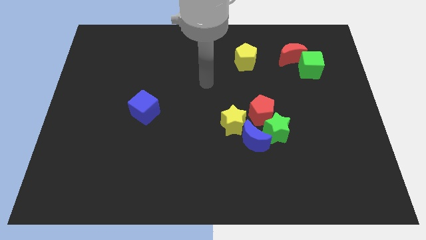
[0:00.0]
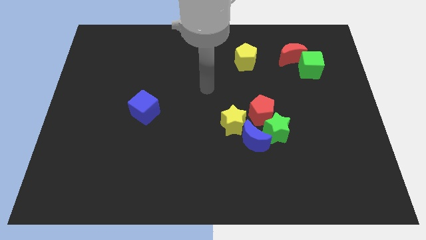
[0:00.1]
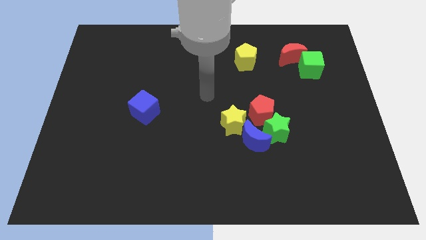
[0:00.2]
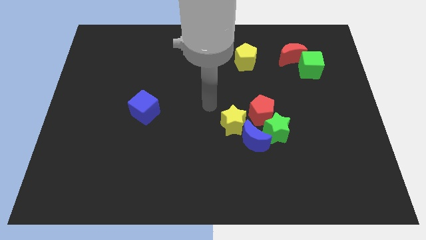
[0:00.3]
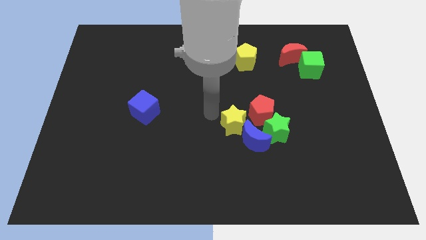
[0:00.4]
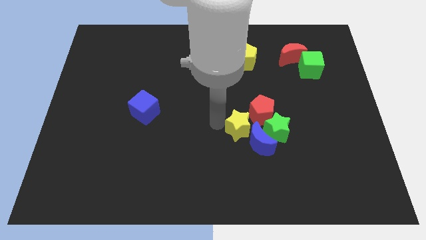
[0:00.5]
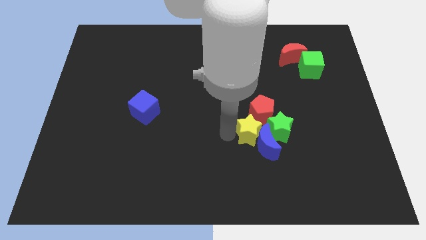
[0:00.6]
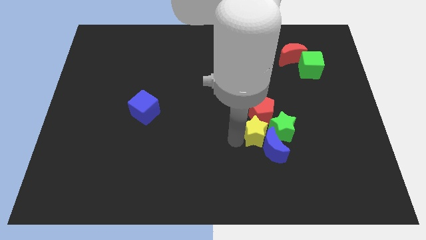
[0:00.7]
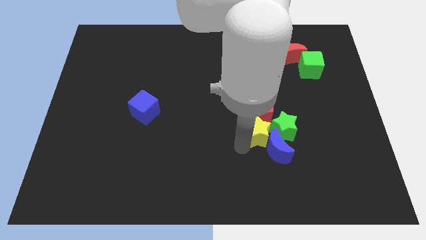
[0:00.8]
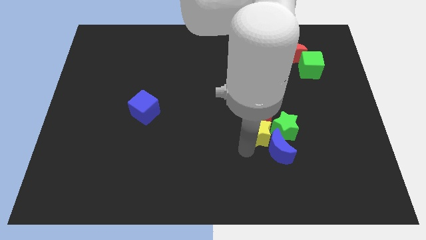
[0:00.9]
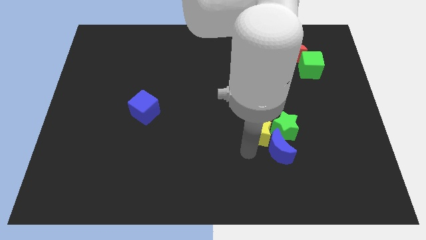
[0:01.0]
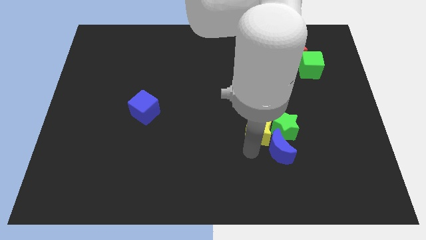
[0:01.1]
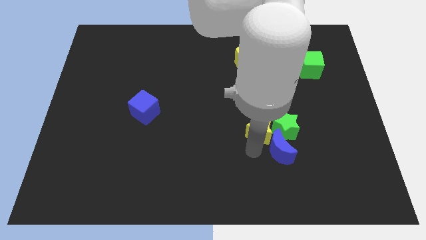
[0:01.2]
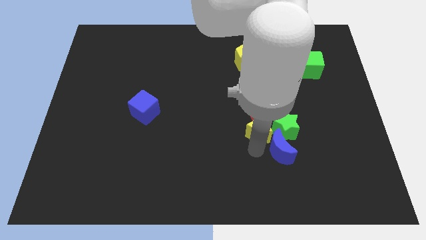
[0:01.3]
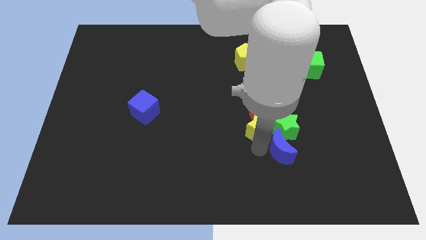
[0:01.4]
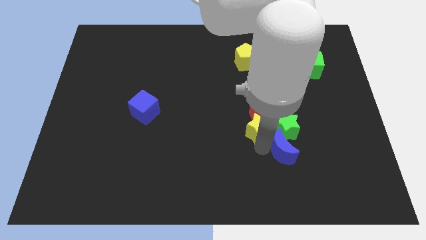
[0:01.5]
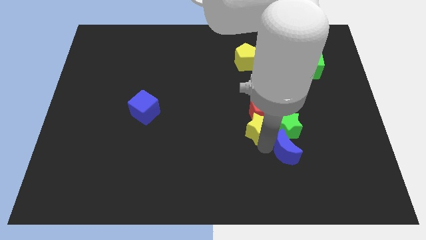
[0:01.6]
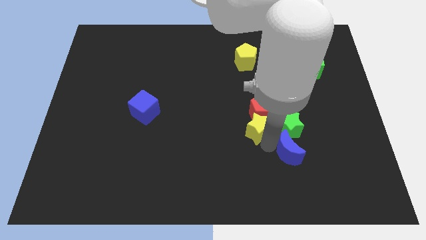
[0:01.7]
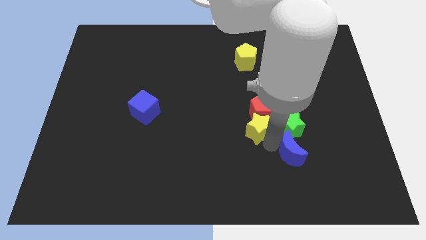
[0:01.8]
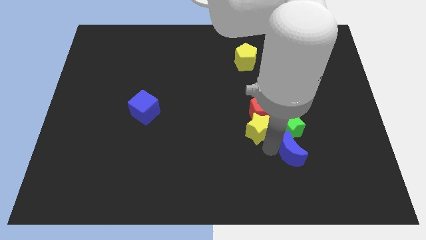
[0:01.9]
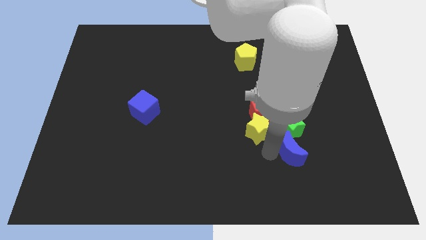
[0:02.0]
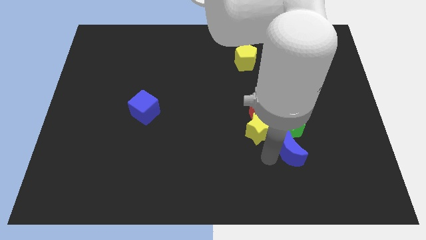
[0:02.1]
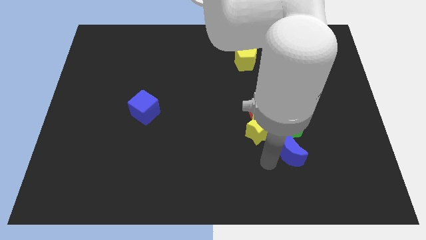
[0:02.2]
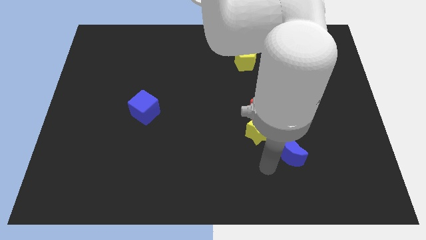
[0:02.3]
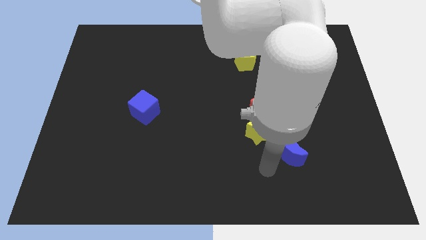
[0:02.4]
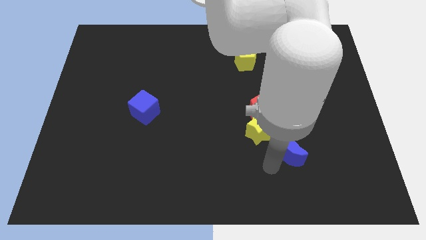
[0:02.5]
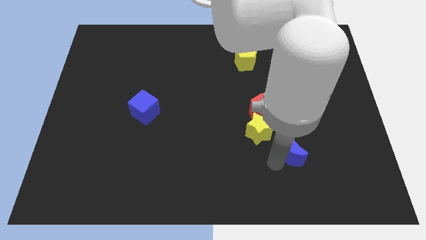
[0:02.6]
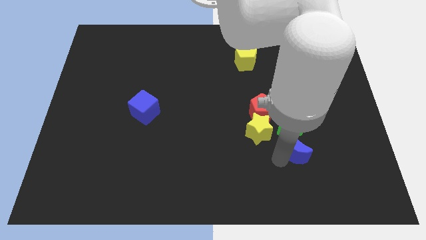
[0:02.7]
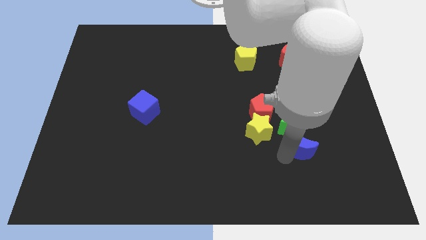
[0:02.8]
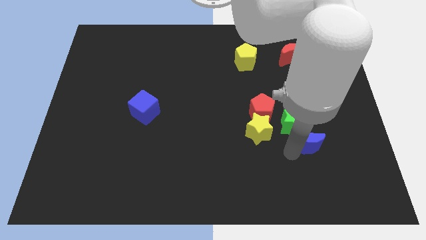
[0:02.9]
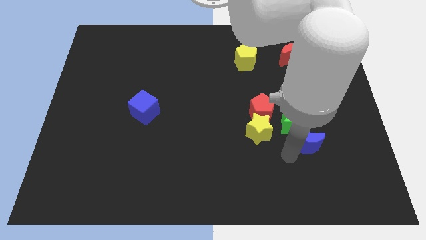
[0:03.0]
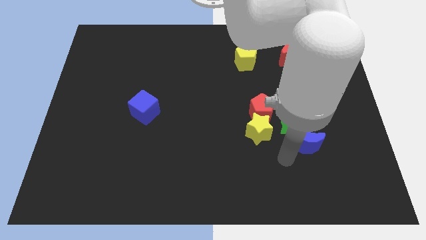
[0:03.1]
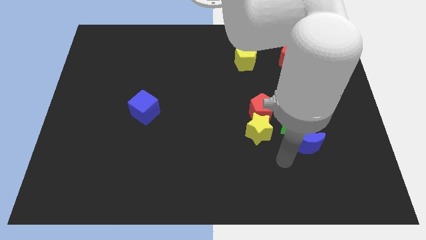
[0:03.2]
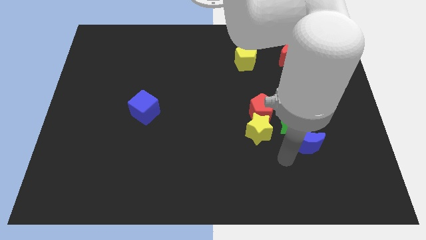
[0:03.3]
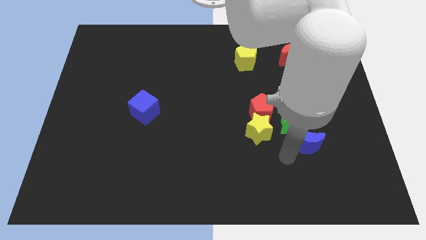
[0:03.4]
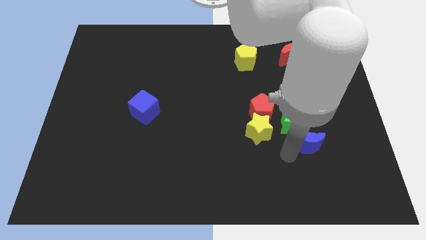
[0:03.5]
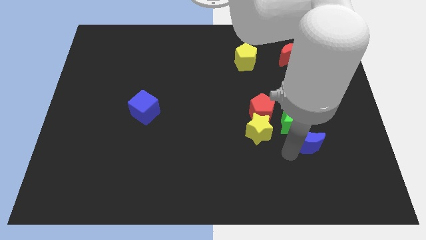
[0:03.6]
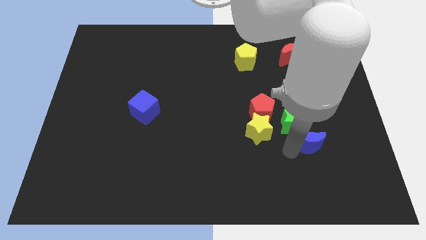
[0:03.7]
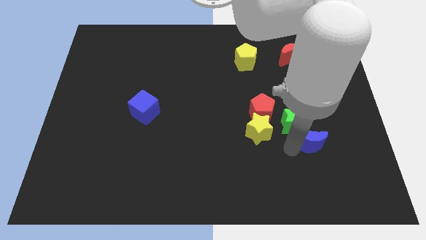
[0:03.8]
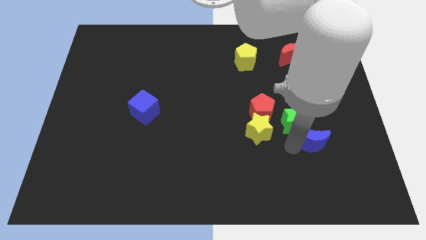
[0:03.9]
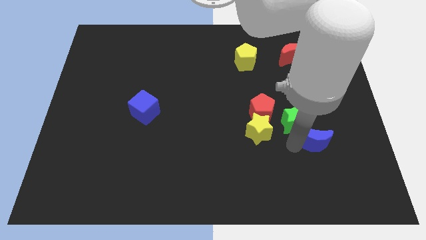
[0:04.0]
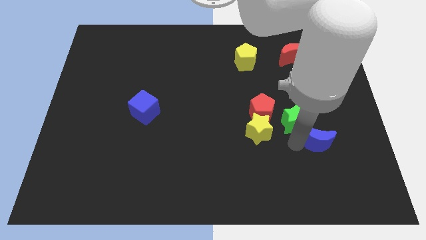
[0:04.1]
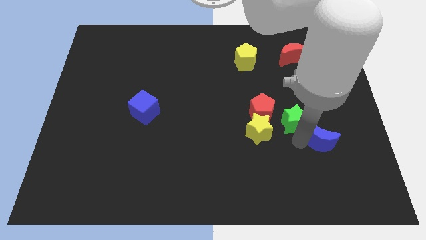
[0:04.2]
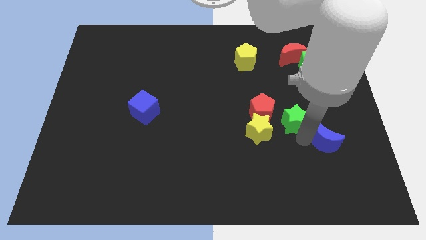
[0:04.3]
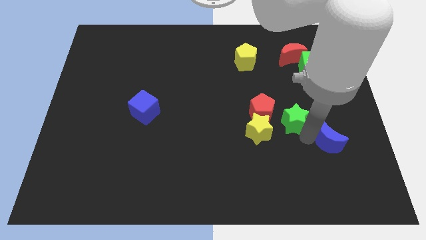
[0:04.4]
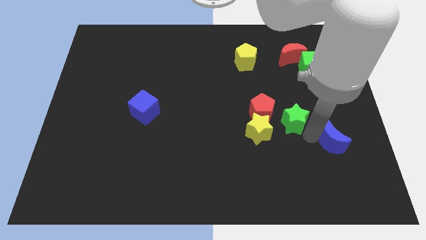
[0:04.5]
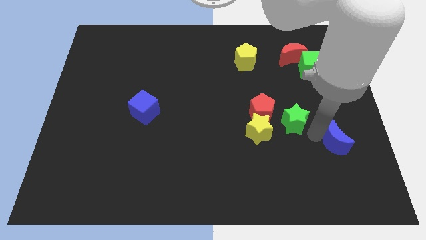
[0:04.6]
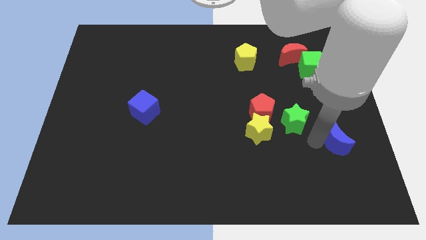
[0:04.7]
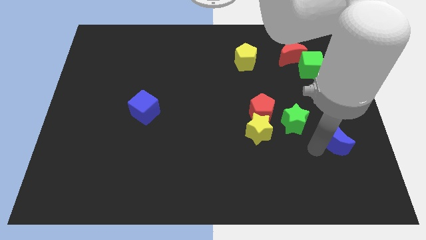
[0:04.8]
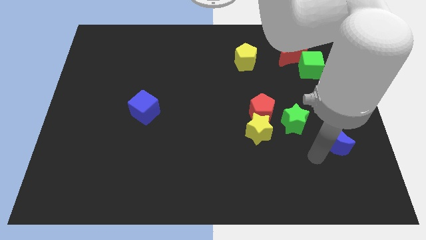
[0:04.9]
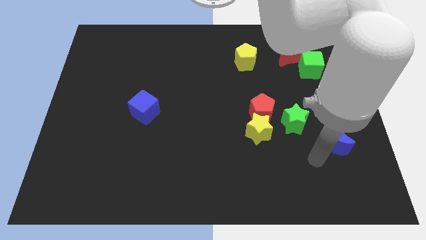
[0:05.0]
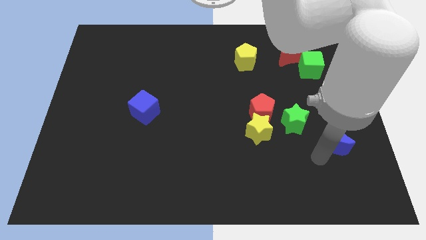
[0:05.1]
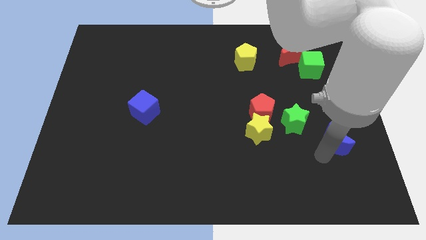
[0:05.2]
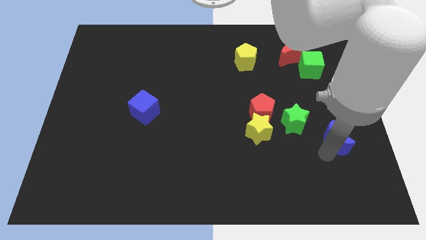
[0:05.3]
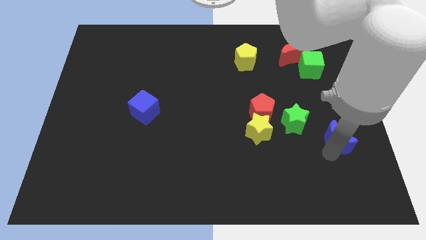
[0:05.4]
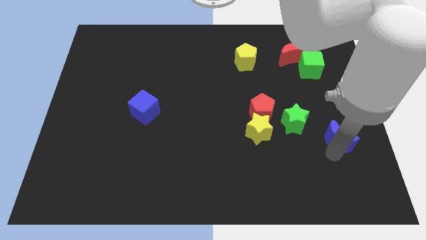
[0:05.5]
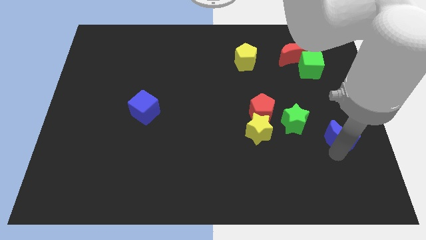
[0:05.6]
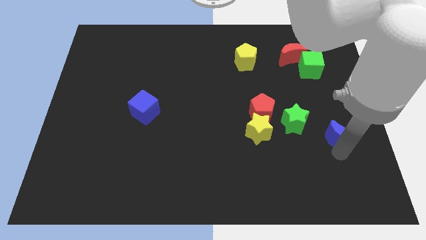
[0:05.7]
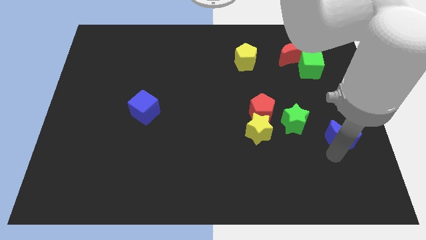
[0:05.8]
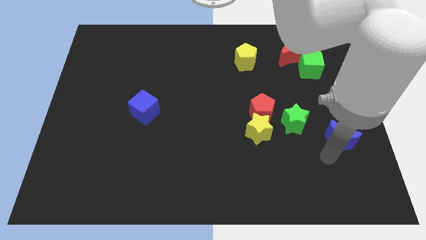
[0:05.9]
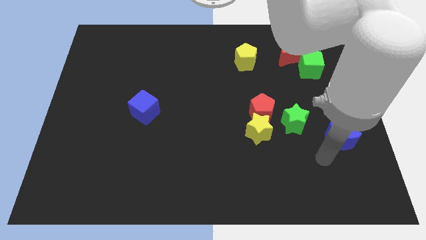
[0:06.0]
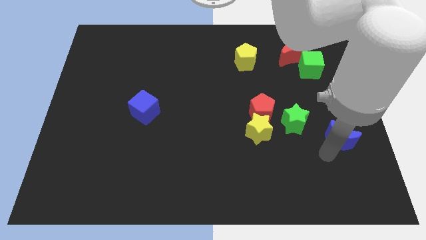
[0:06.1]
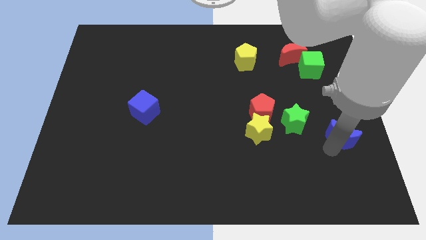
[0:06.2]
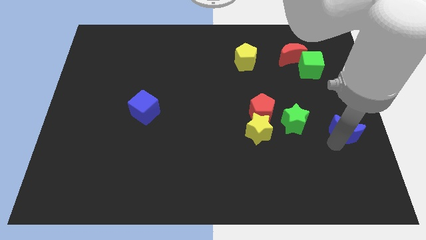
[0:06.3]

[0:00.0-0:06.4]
put the blue moon to the center right
